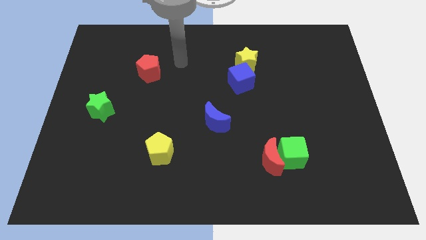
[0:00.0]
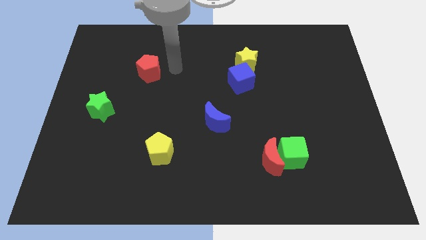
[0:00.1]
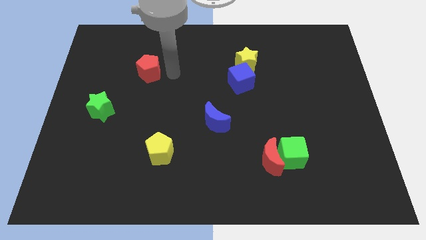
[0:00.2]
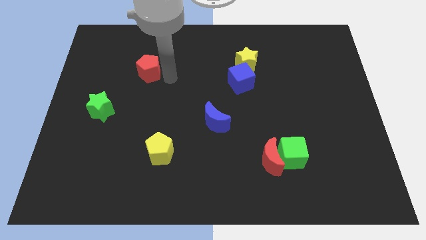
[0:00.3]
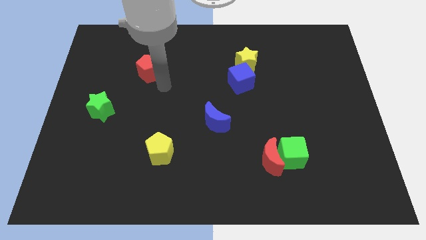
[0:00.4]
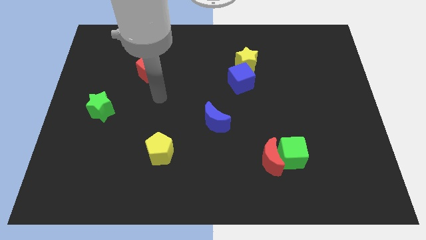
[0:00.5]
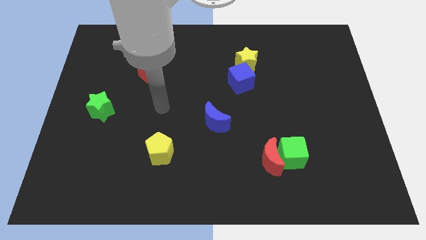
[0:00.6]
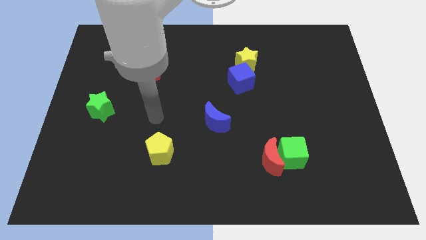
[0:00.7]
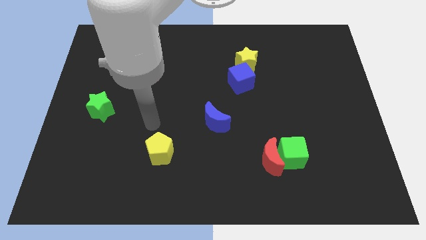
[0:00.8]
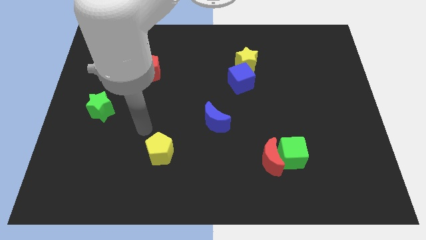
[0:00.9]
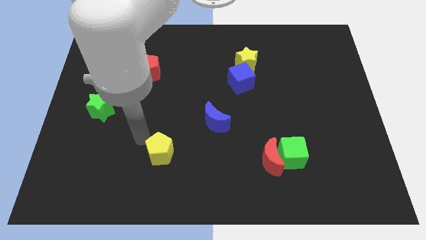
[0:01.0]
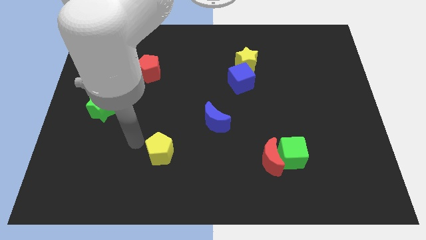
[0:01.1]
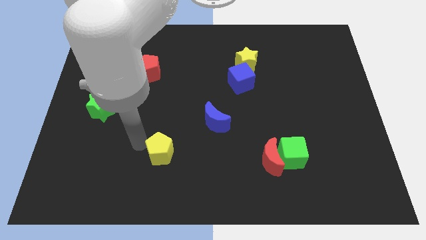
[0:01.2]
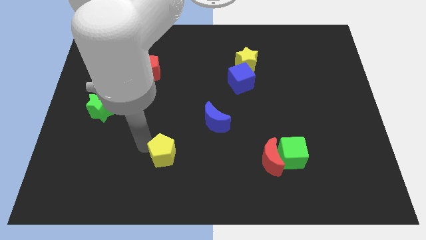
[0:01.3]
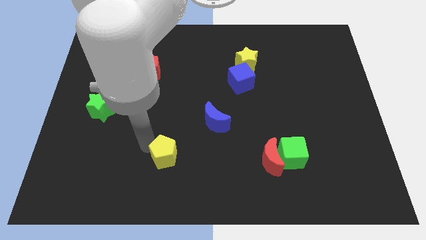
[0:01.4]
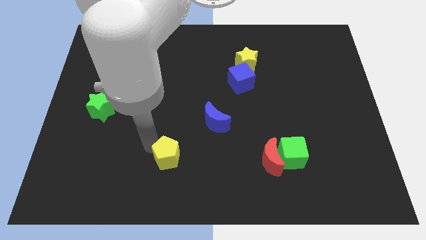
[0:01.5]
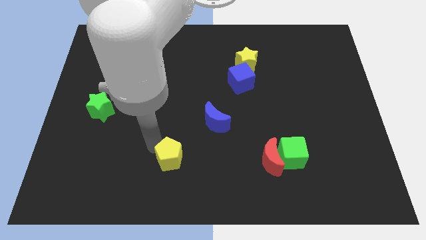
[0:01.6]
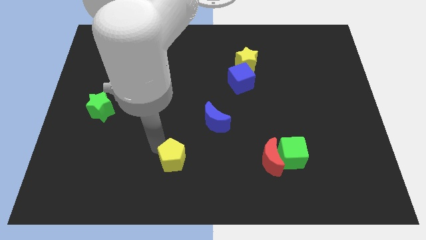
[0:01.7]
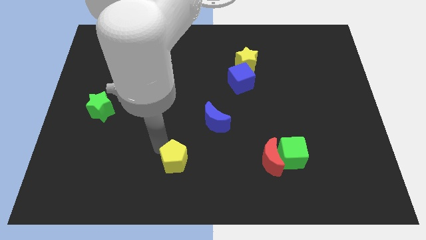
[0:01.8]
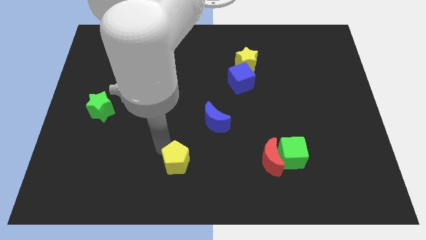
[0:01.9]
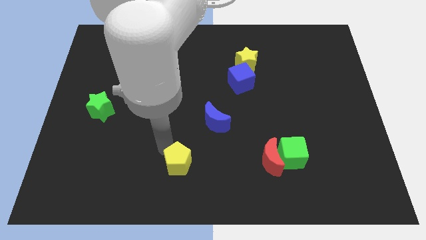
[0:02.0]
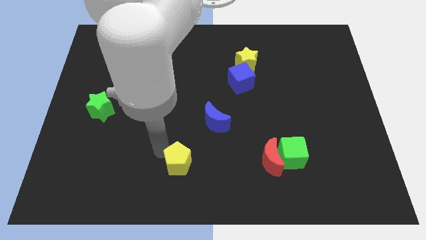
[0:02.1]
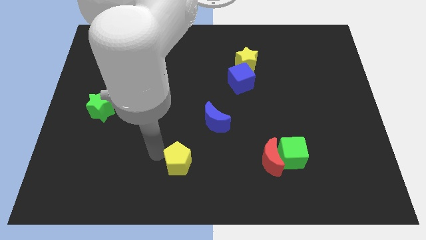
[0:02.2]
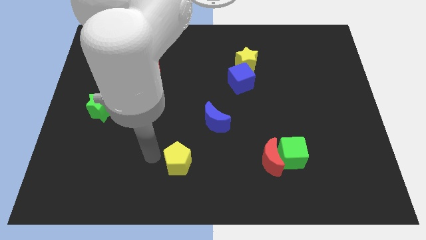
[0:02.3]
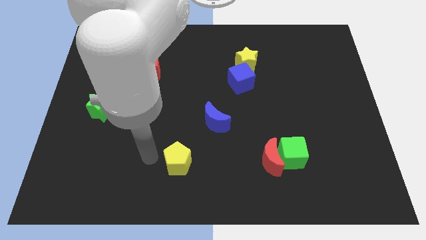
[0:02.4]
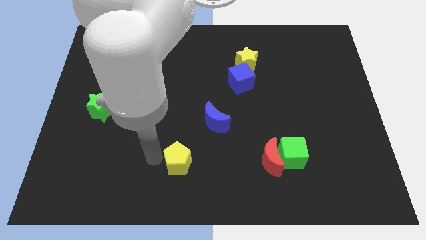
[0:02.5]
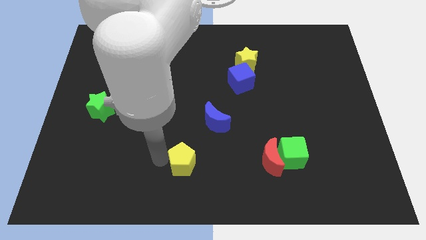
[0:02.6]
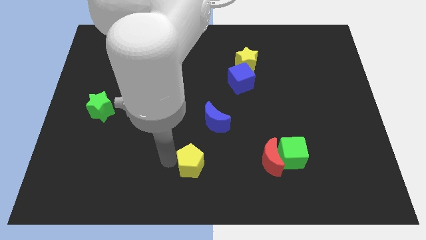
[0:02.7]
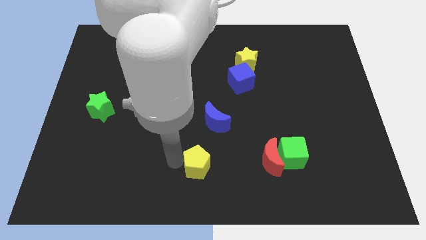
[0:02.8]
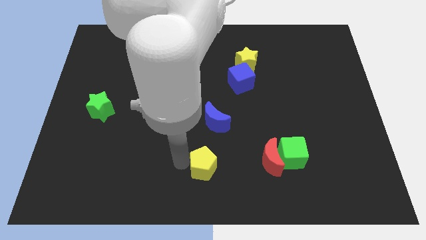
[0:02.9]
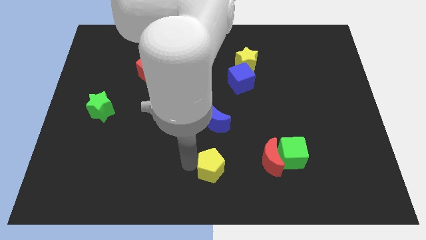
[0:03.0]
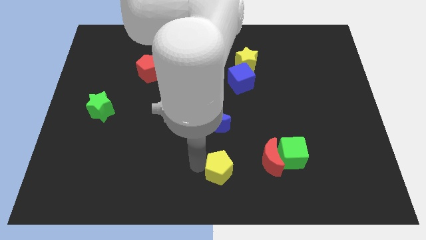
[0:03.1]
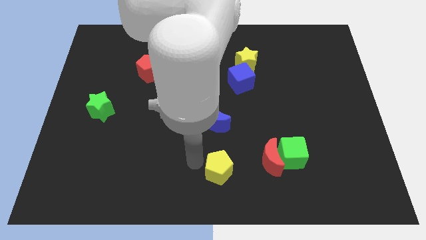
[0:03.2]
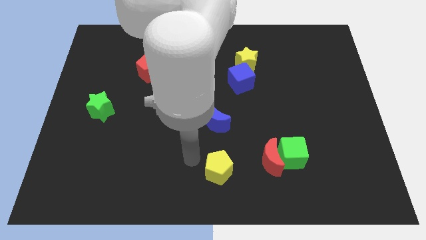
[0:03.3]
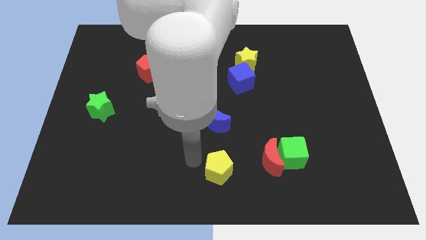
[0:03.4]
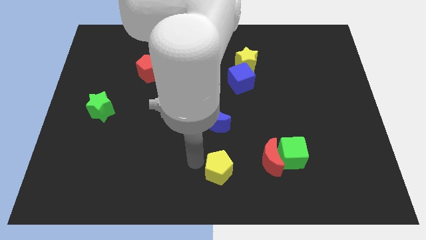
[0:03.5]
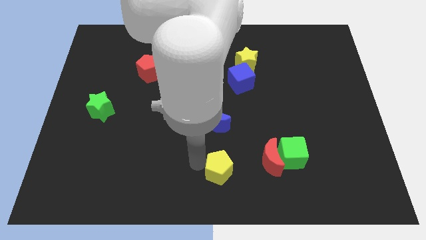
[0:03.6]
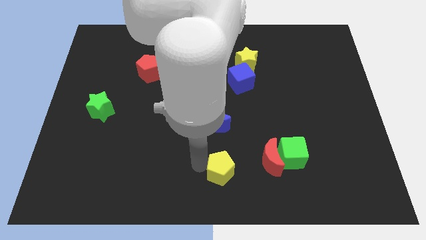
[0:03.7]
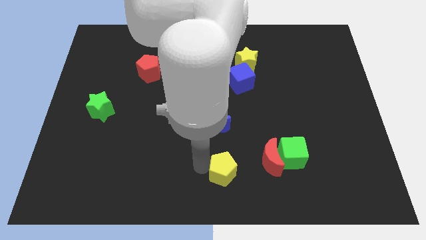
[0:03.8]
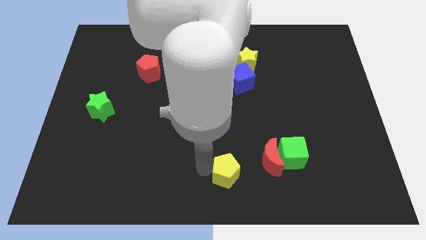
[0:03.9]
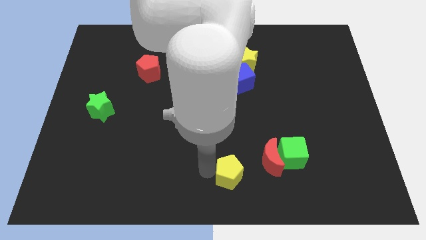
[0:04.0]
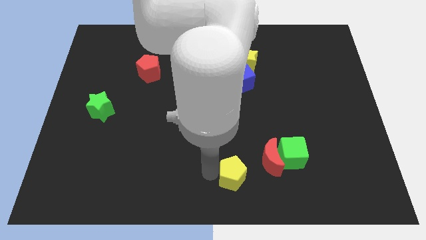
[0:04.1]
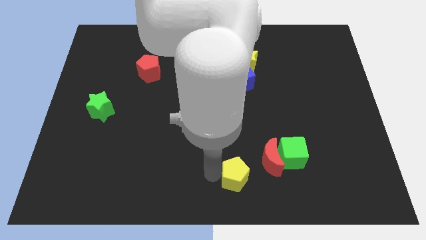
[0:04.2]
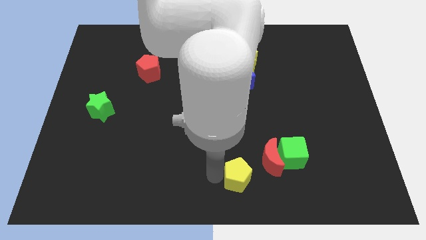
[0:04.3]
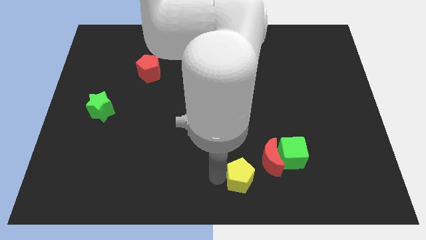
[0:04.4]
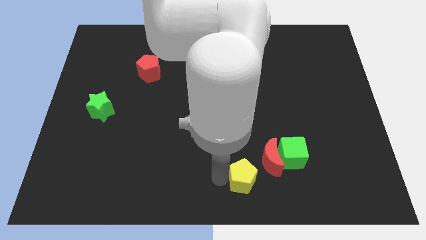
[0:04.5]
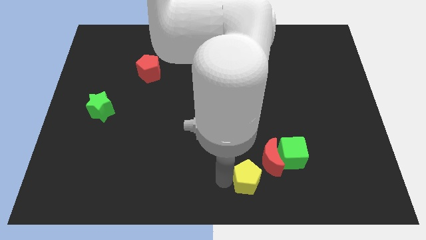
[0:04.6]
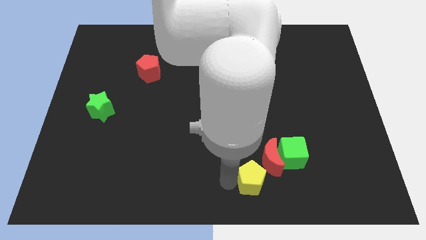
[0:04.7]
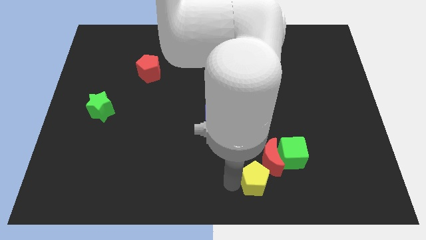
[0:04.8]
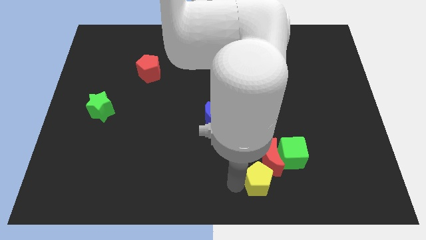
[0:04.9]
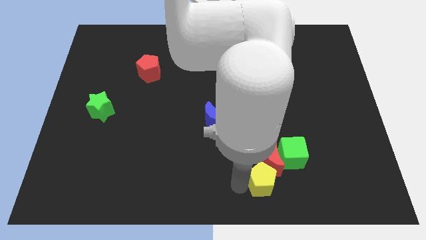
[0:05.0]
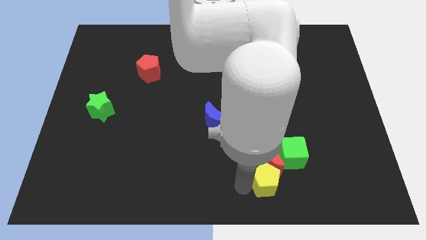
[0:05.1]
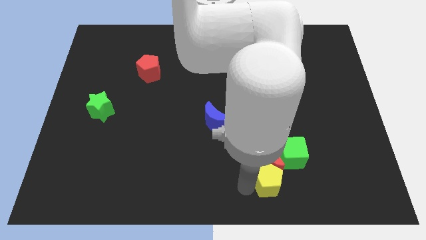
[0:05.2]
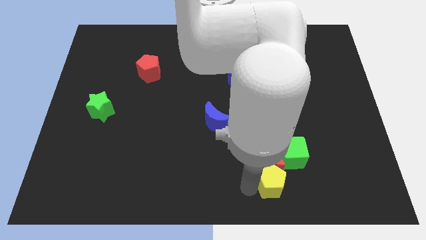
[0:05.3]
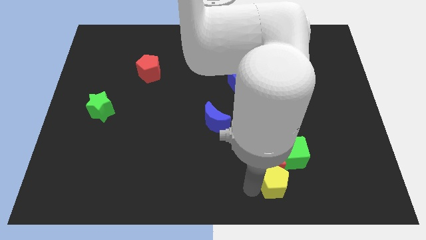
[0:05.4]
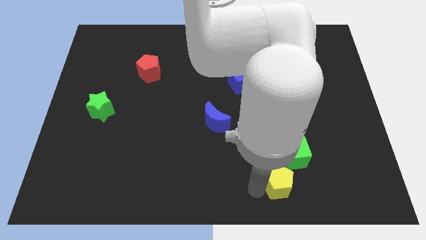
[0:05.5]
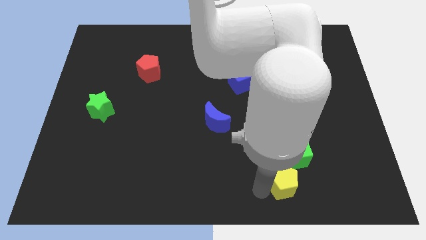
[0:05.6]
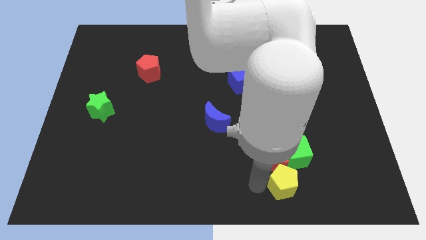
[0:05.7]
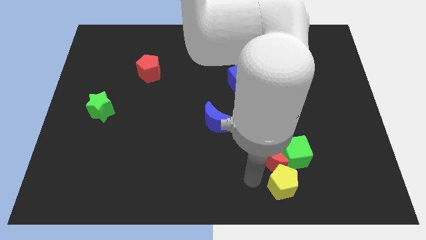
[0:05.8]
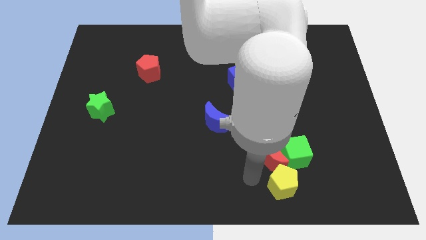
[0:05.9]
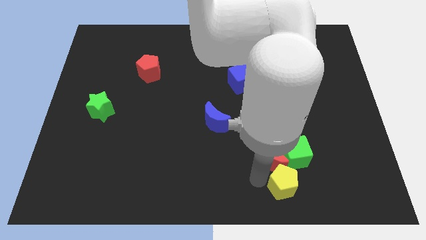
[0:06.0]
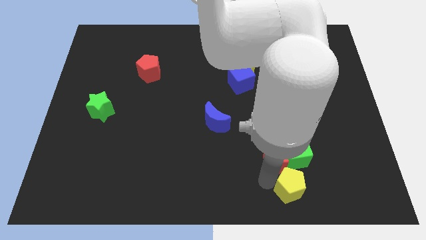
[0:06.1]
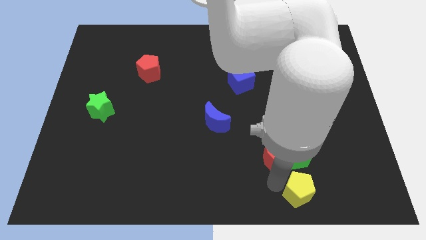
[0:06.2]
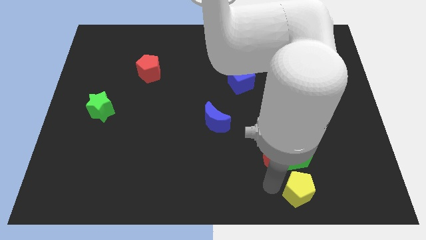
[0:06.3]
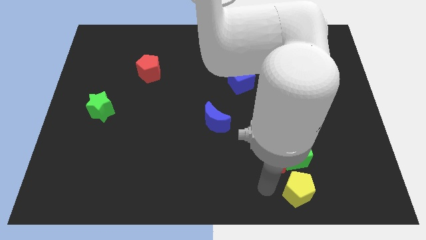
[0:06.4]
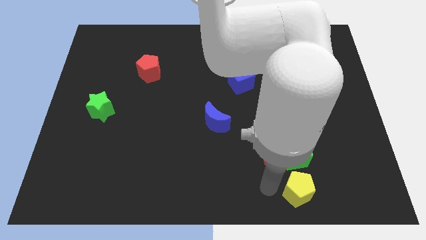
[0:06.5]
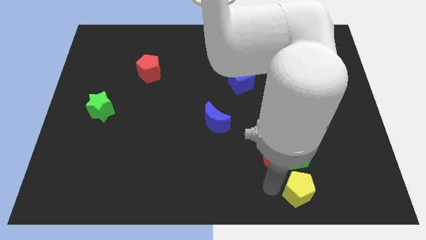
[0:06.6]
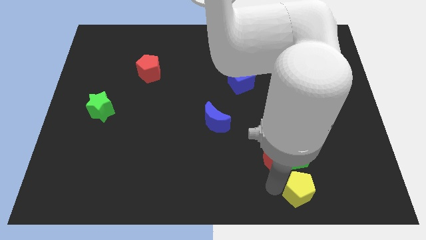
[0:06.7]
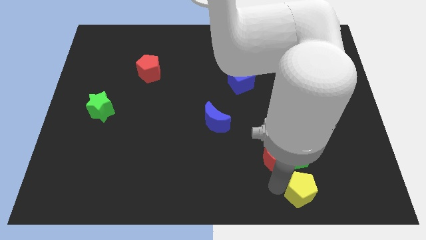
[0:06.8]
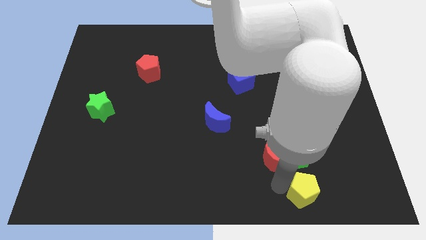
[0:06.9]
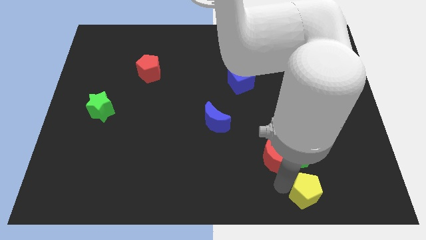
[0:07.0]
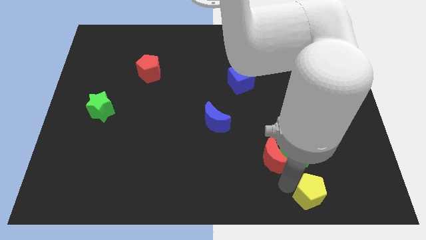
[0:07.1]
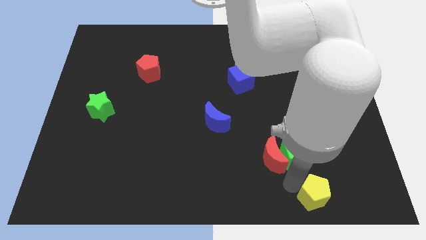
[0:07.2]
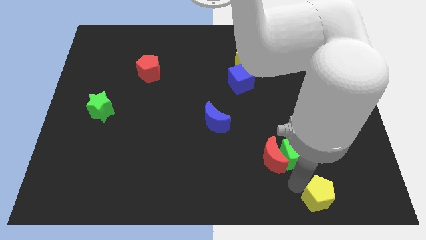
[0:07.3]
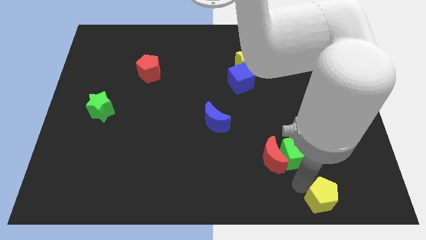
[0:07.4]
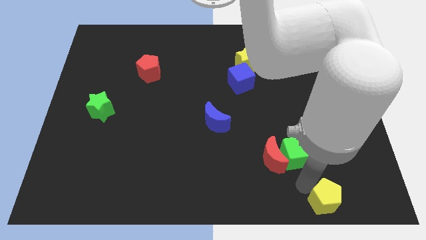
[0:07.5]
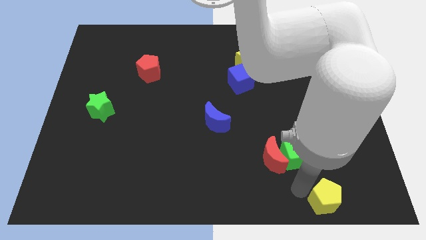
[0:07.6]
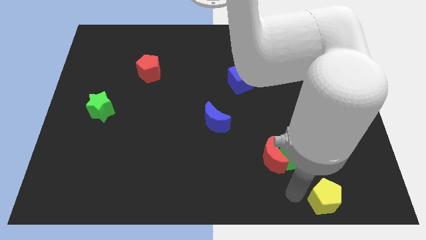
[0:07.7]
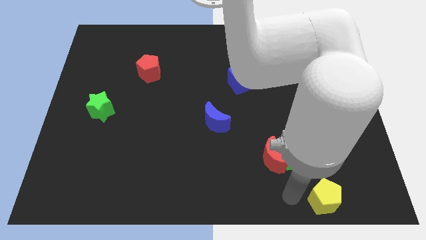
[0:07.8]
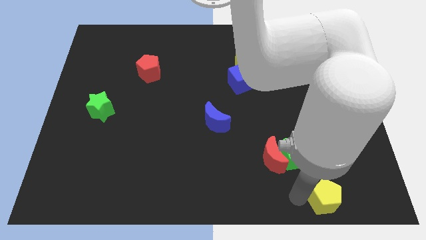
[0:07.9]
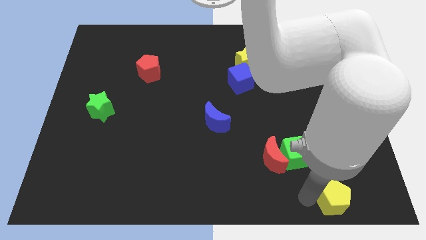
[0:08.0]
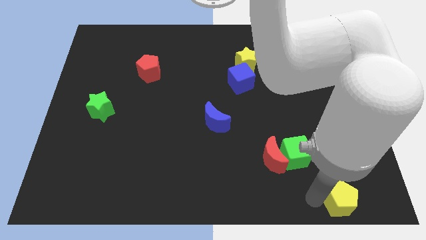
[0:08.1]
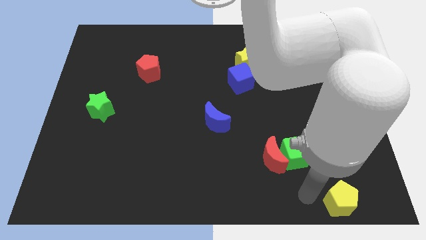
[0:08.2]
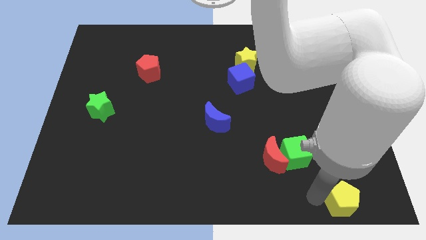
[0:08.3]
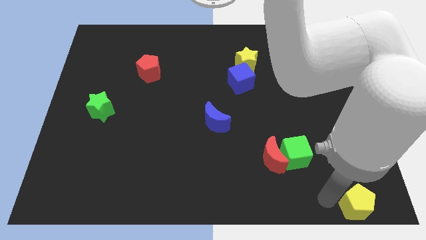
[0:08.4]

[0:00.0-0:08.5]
push the yellow pentagon to the bottom right corner
